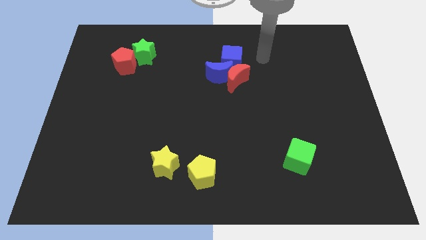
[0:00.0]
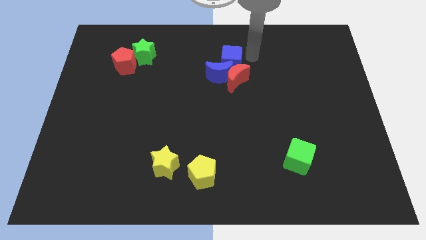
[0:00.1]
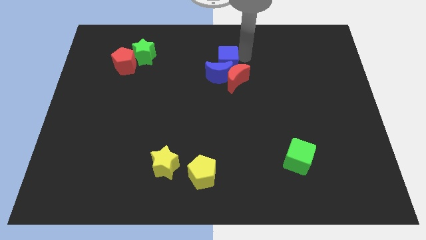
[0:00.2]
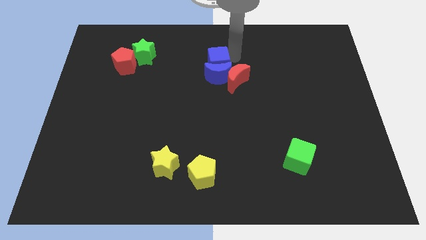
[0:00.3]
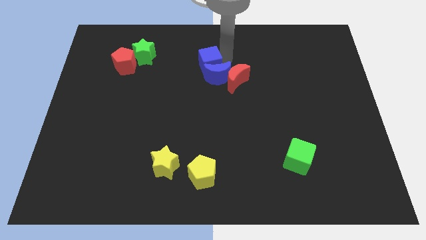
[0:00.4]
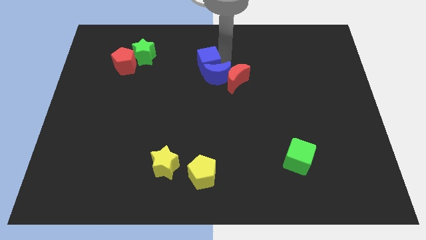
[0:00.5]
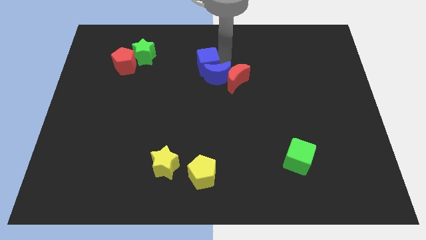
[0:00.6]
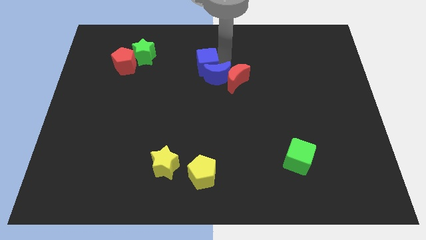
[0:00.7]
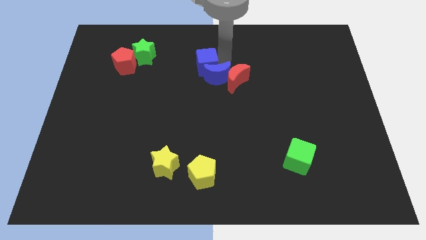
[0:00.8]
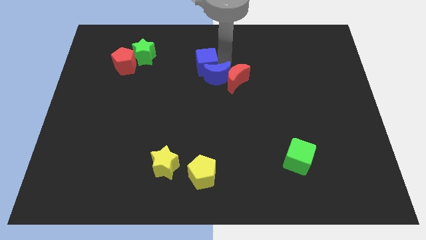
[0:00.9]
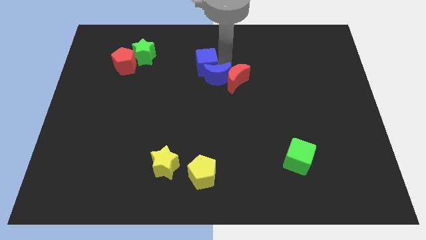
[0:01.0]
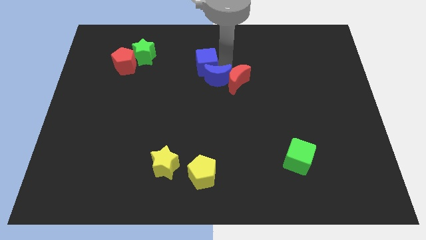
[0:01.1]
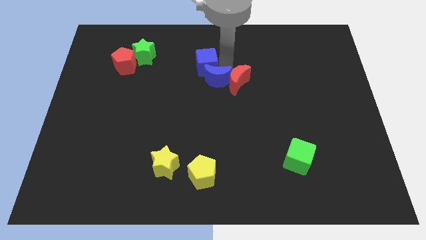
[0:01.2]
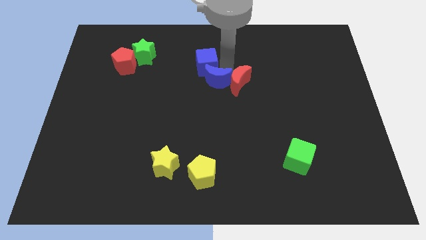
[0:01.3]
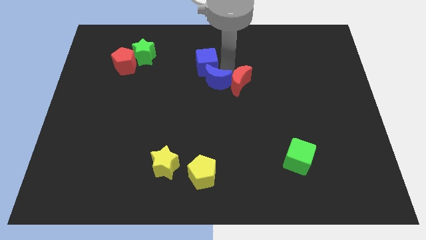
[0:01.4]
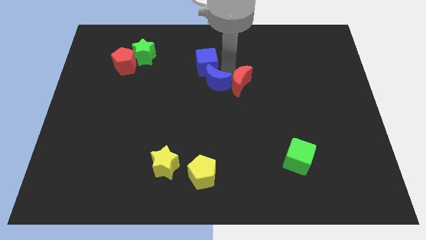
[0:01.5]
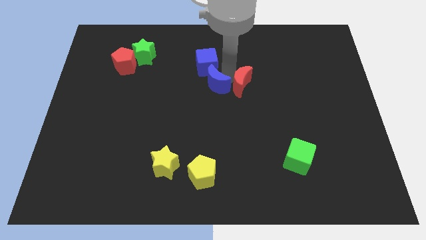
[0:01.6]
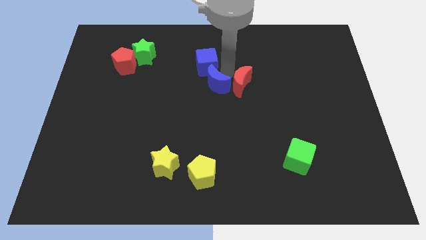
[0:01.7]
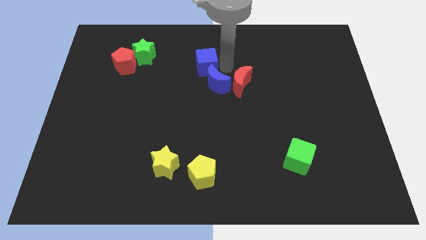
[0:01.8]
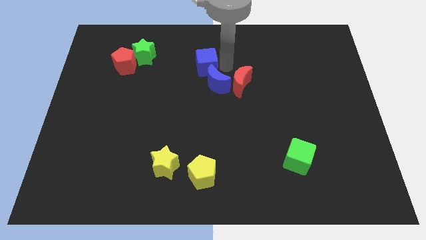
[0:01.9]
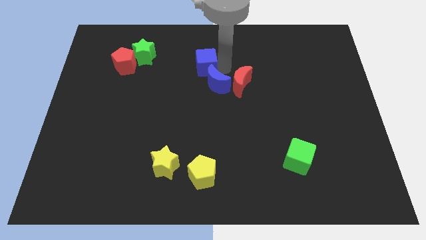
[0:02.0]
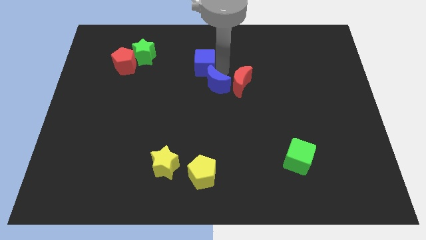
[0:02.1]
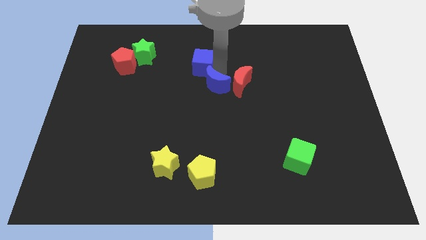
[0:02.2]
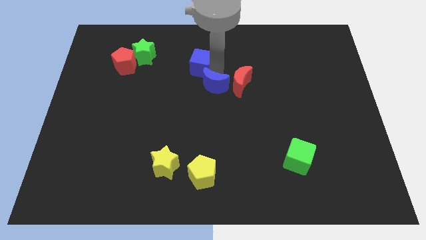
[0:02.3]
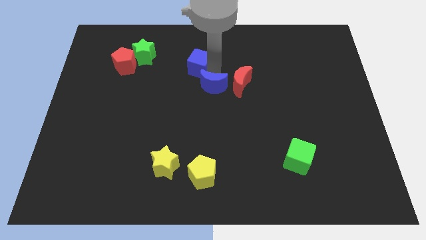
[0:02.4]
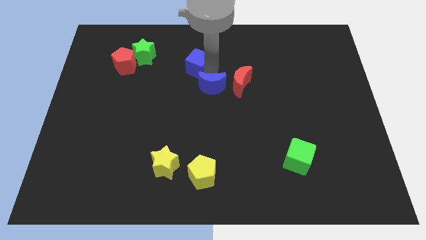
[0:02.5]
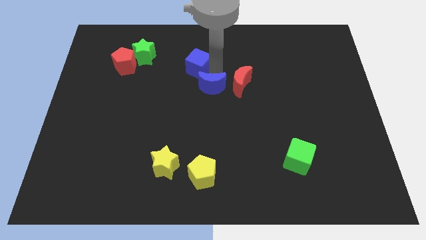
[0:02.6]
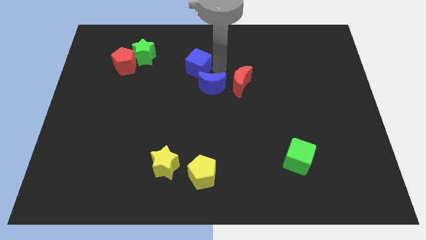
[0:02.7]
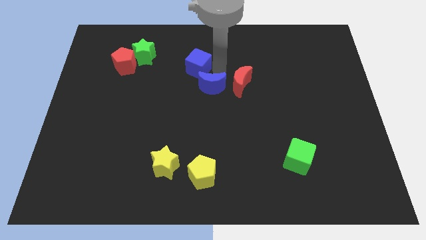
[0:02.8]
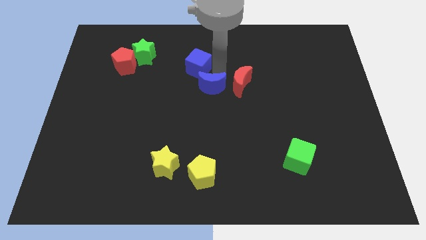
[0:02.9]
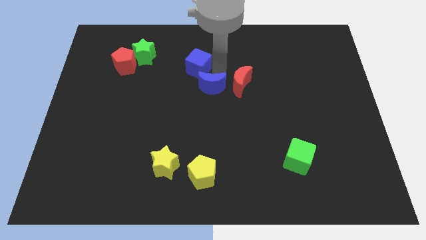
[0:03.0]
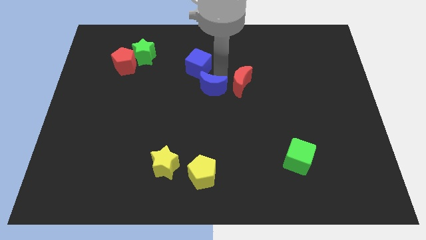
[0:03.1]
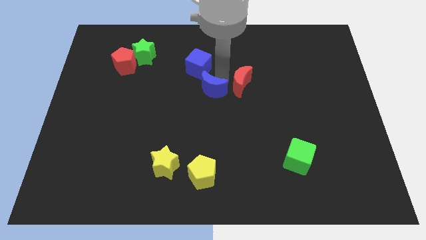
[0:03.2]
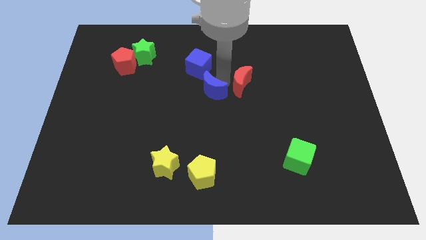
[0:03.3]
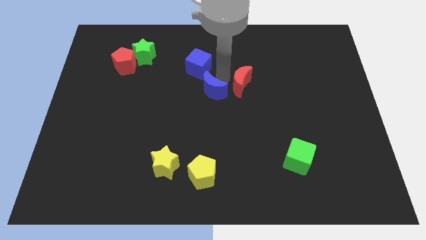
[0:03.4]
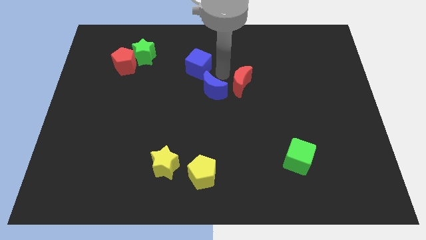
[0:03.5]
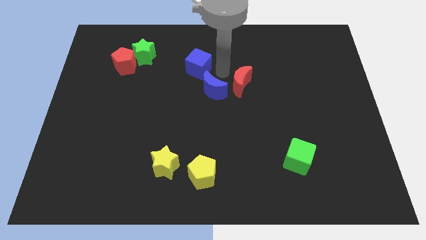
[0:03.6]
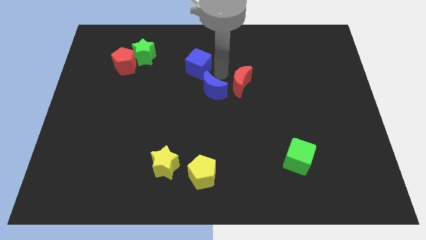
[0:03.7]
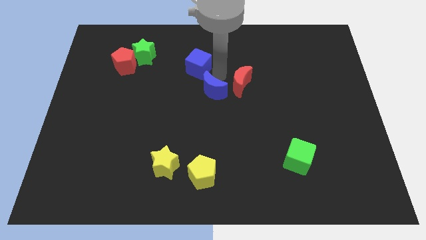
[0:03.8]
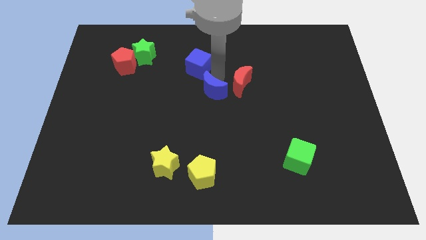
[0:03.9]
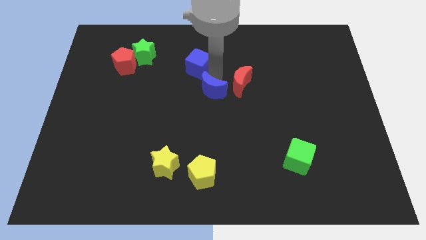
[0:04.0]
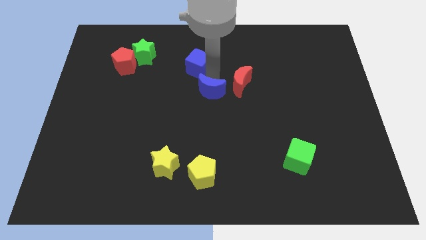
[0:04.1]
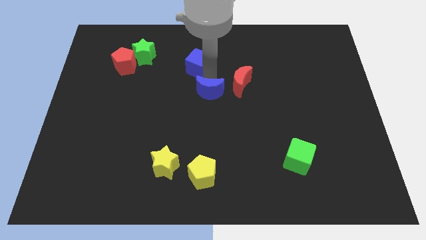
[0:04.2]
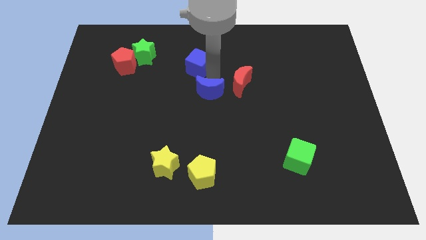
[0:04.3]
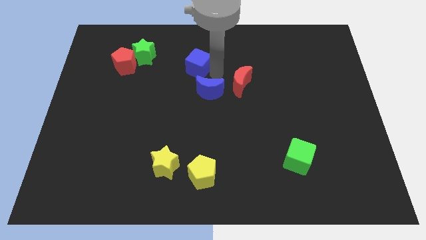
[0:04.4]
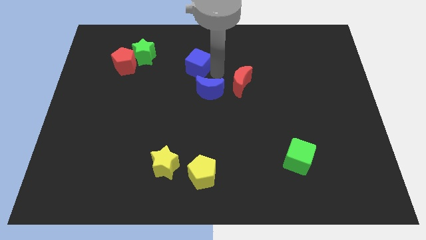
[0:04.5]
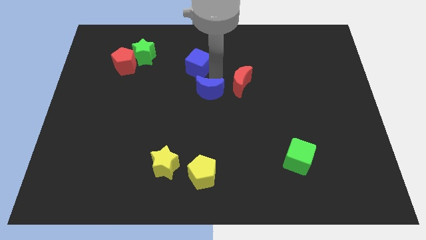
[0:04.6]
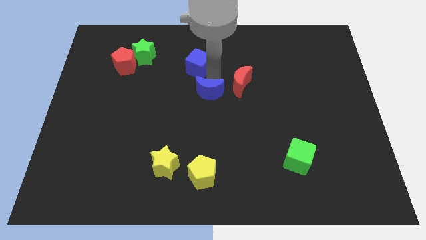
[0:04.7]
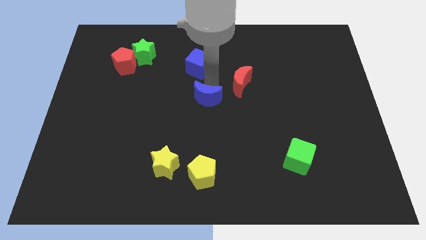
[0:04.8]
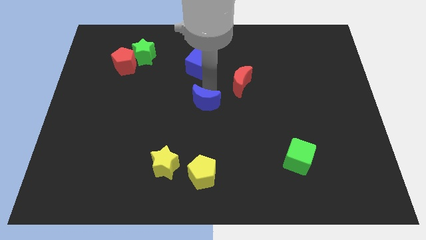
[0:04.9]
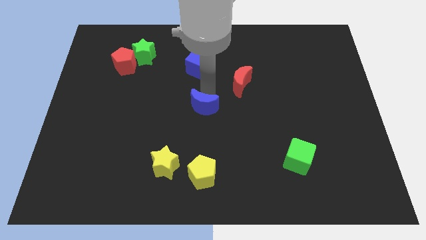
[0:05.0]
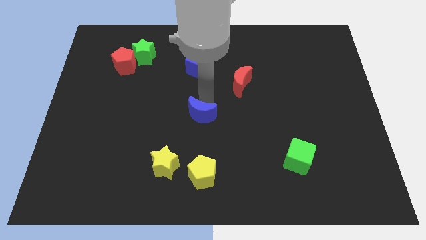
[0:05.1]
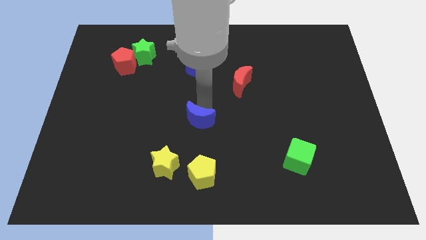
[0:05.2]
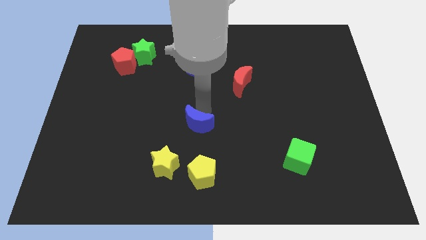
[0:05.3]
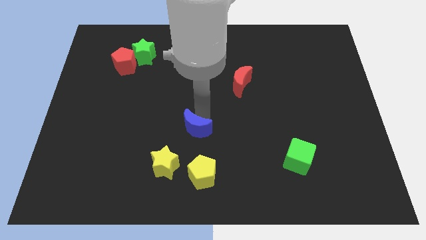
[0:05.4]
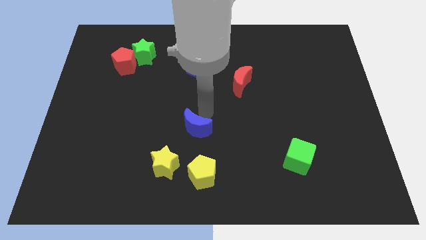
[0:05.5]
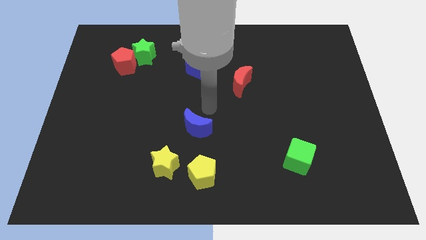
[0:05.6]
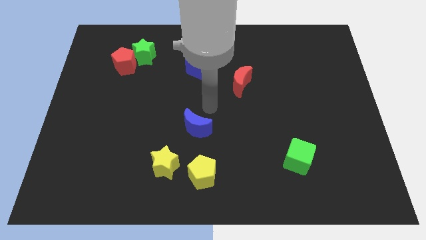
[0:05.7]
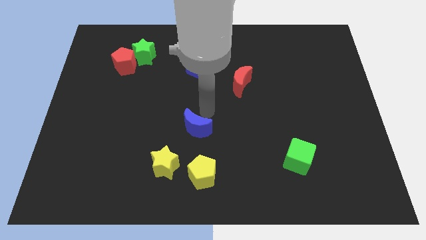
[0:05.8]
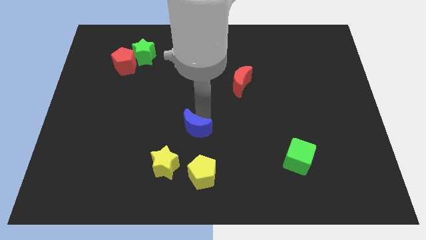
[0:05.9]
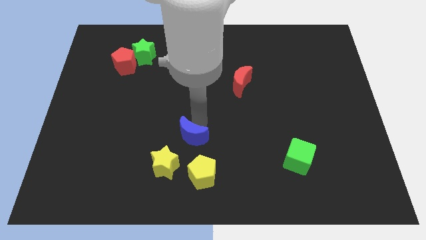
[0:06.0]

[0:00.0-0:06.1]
slide the blue moon to the top left side of the yellow pentagon
